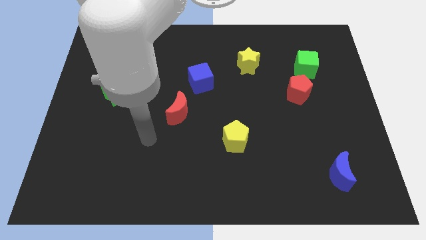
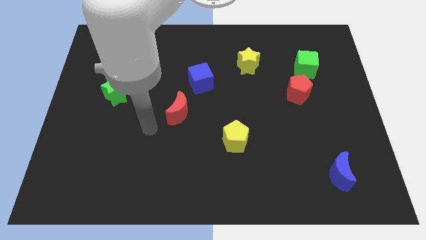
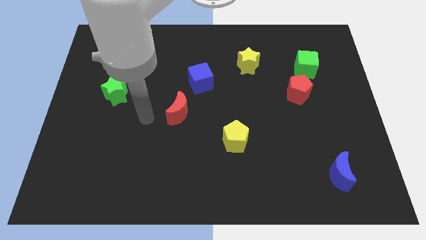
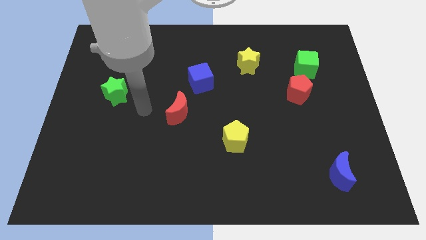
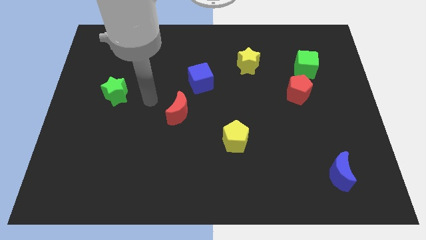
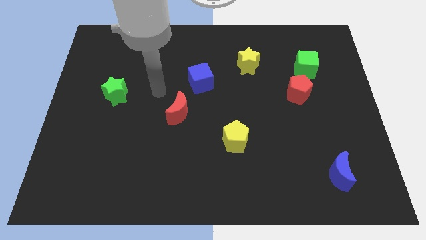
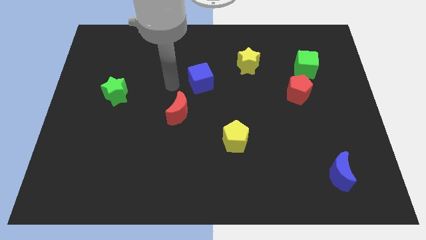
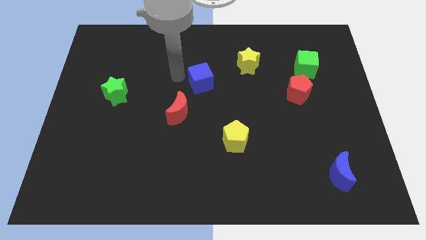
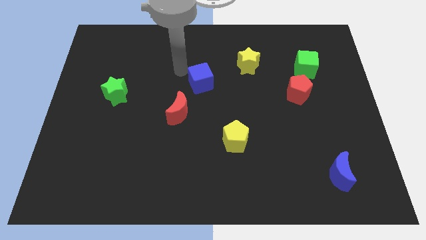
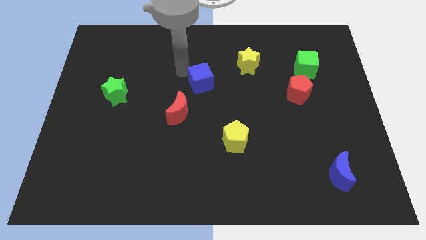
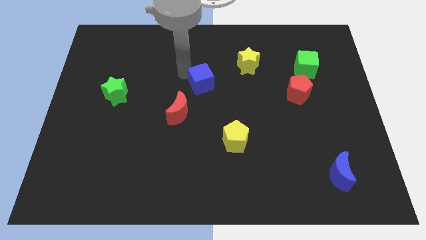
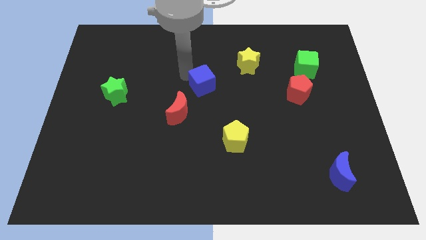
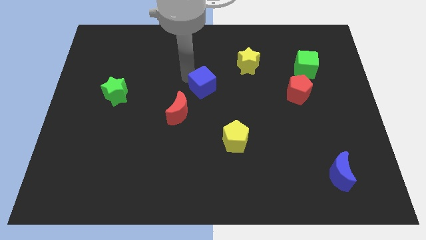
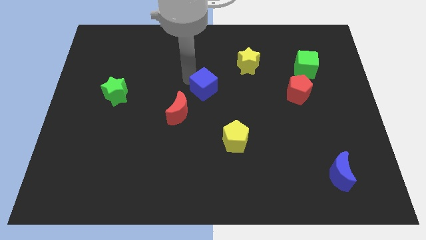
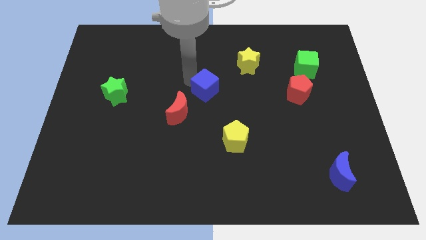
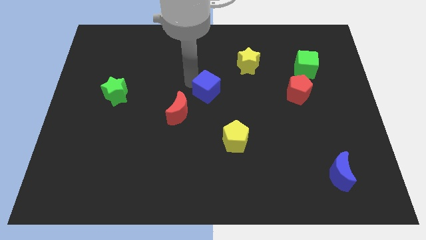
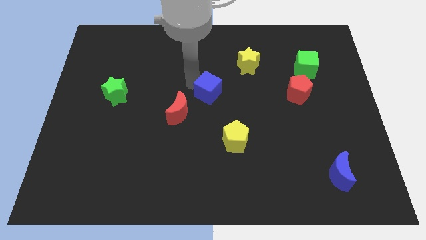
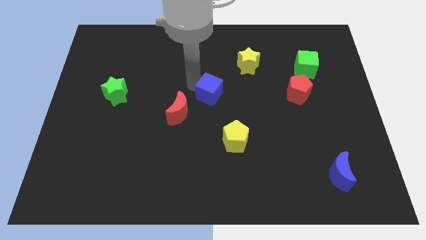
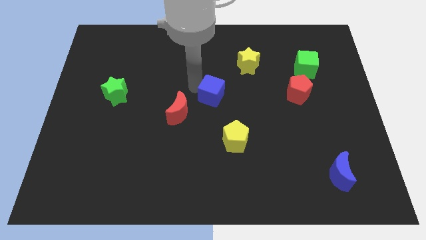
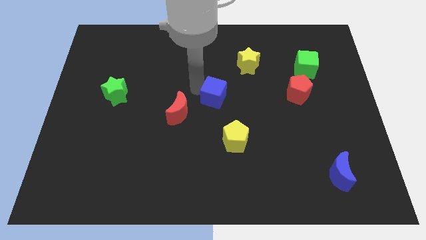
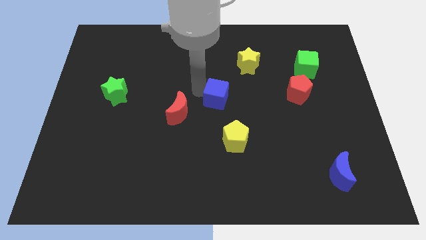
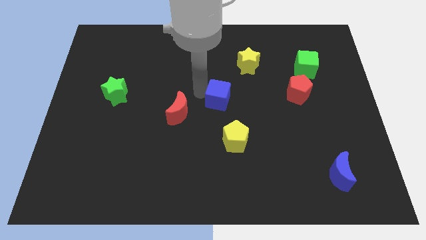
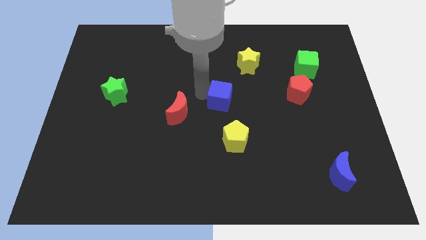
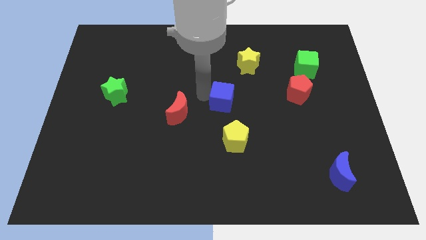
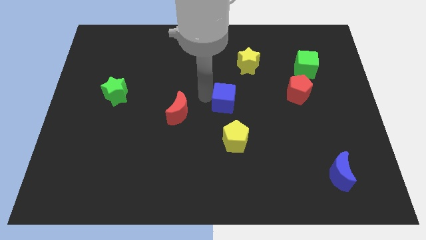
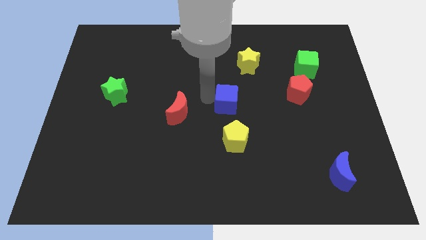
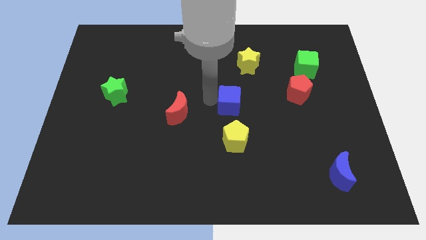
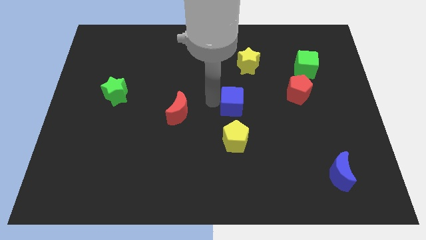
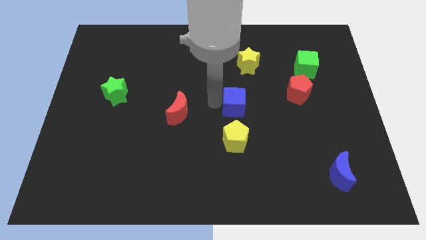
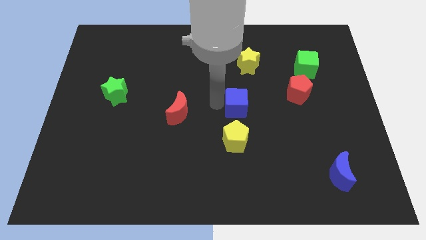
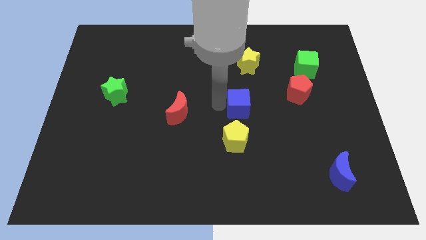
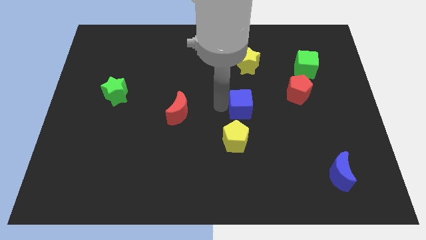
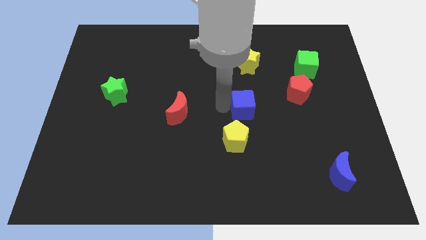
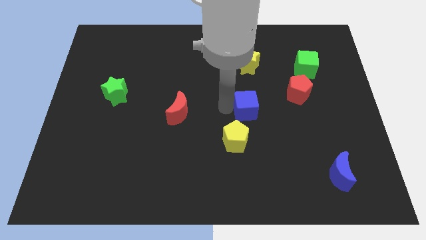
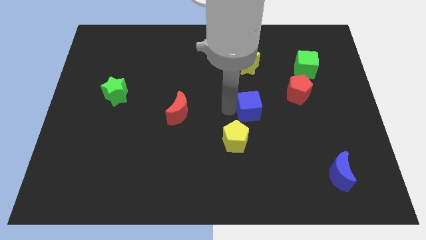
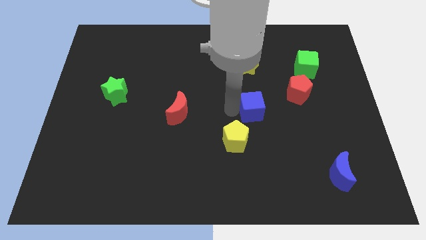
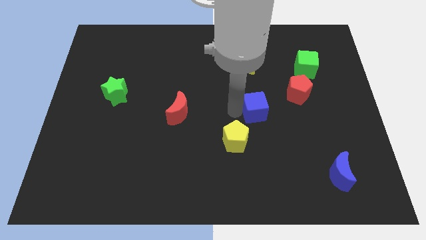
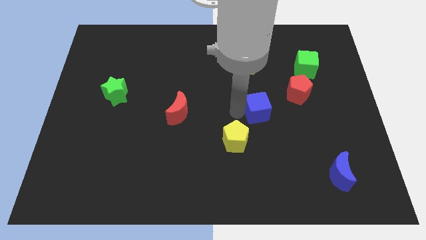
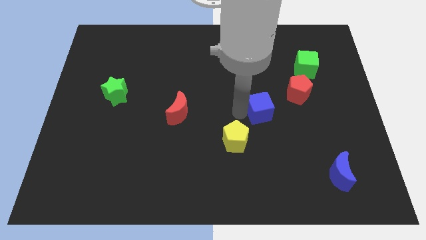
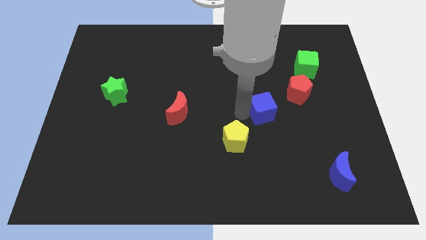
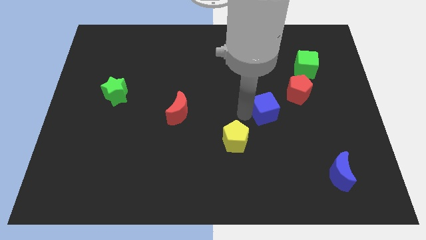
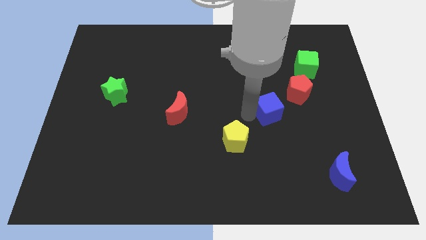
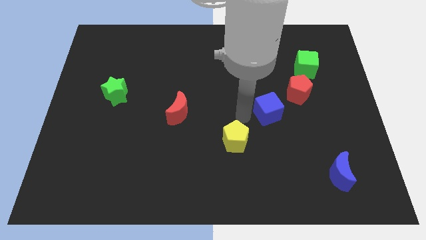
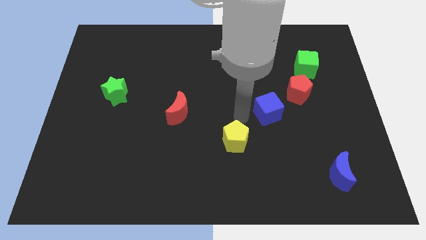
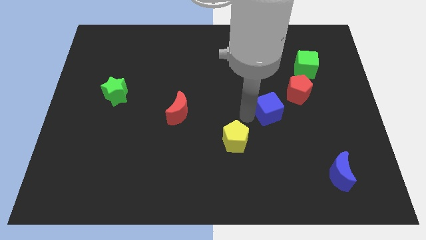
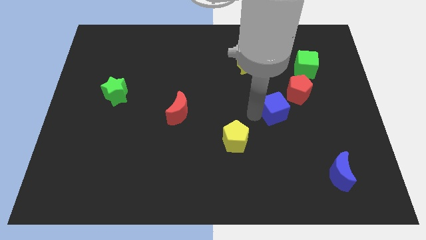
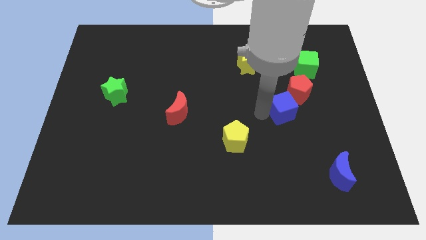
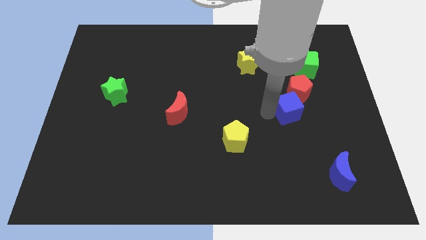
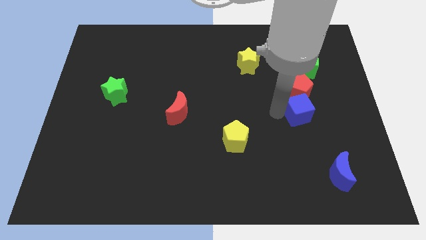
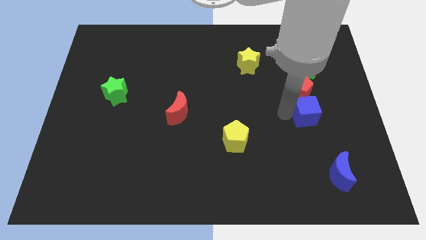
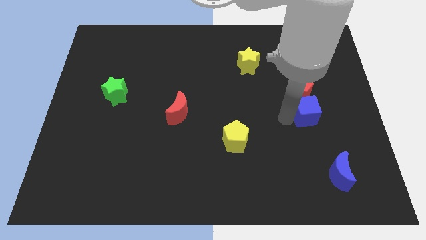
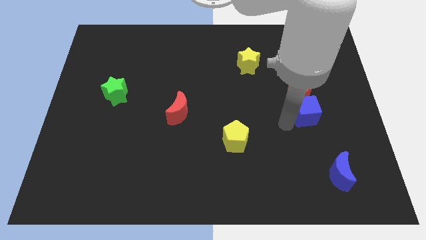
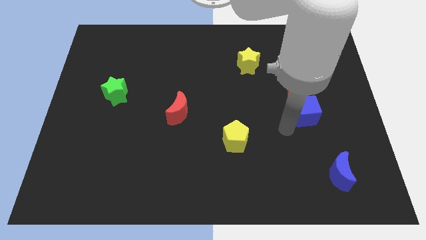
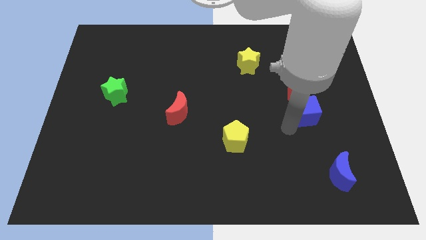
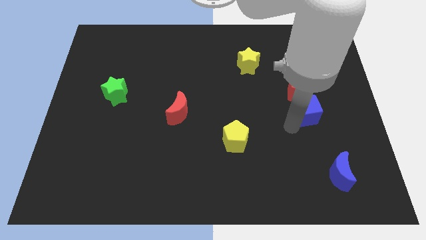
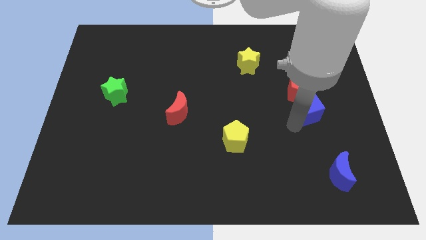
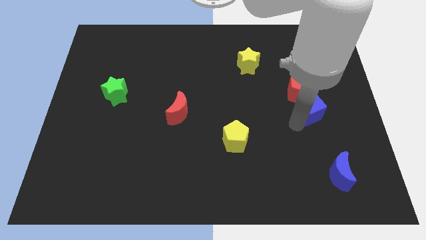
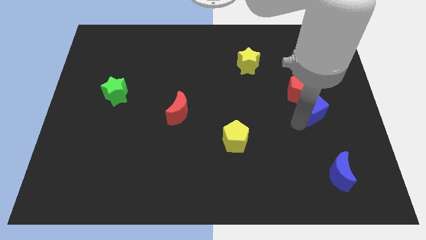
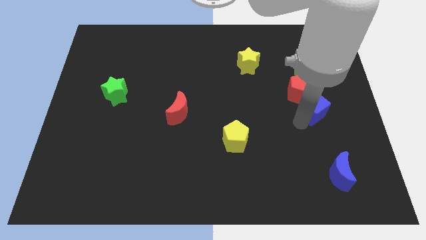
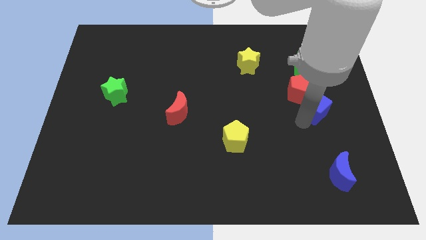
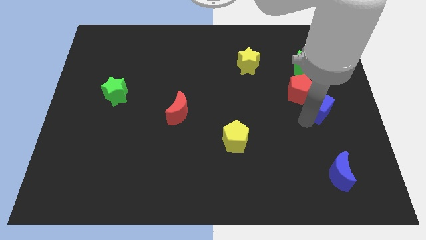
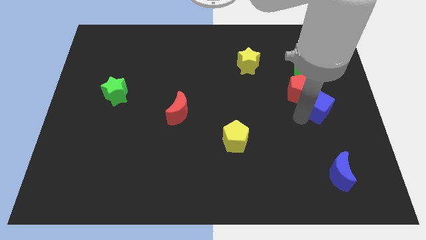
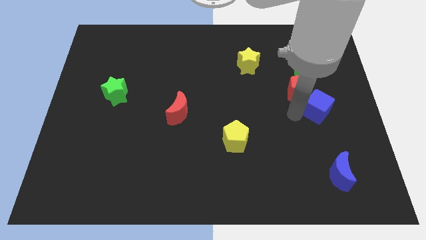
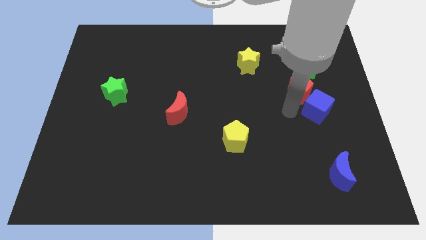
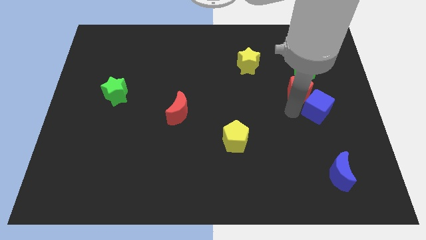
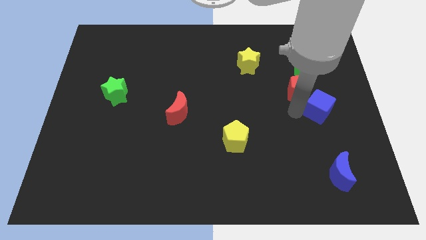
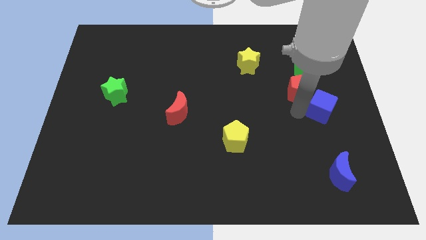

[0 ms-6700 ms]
slide the blue cube to the right side of the board
